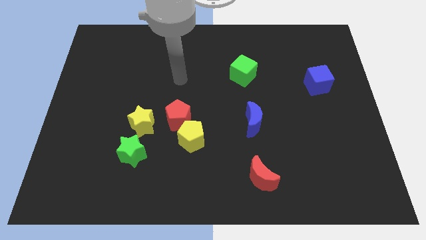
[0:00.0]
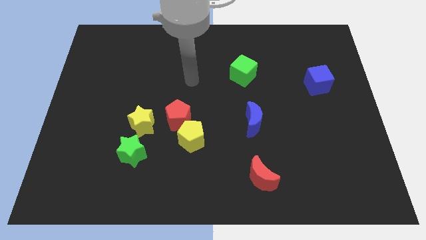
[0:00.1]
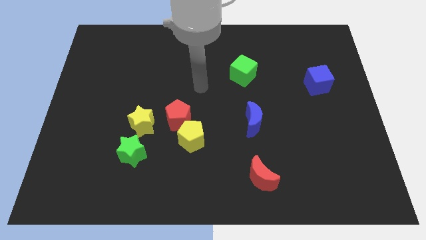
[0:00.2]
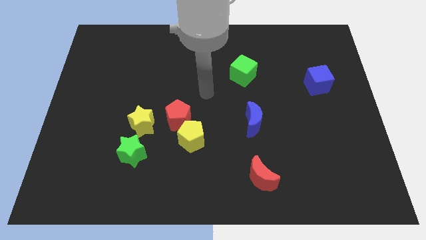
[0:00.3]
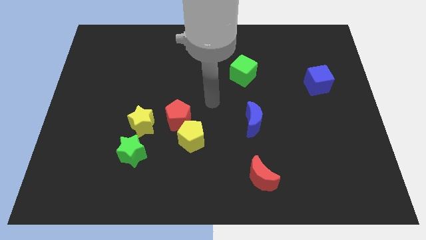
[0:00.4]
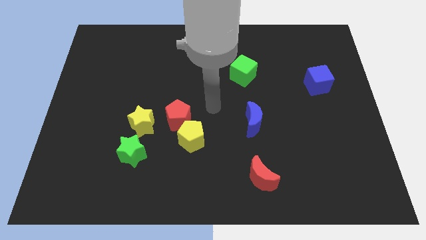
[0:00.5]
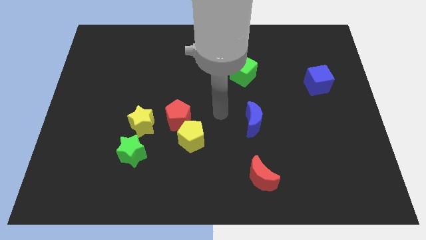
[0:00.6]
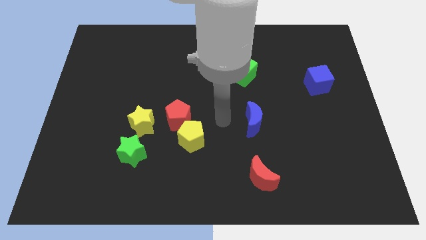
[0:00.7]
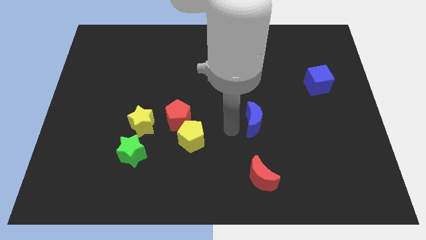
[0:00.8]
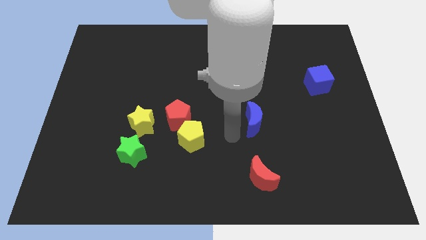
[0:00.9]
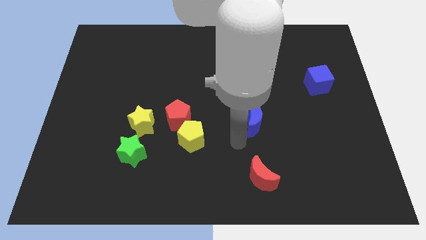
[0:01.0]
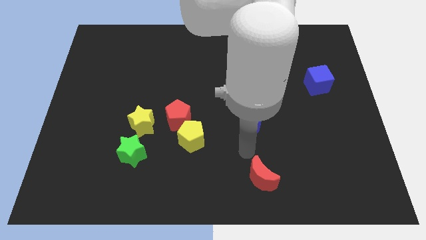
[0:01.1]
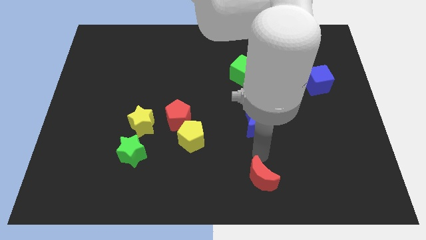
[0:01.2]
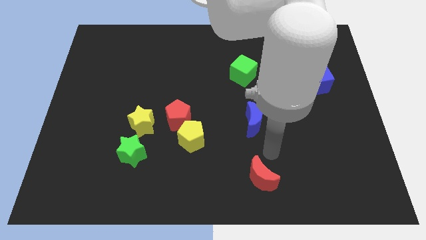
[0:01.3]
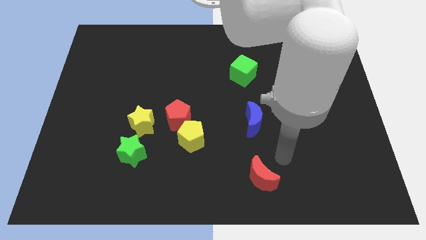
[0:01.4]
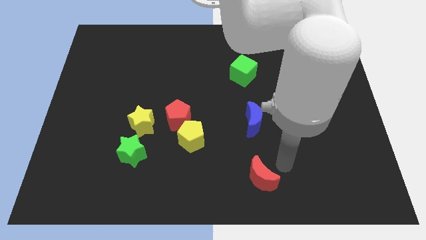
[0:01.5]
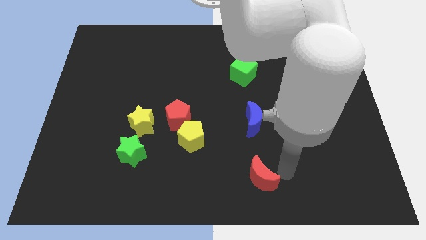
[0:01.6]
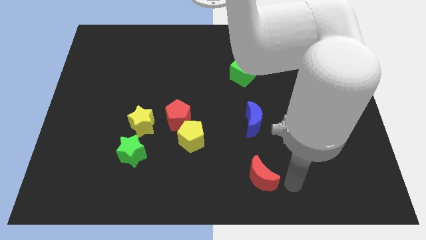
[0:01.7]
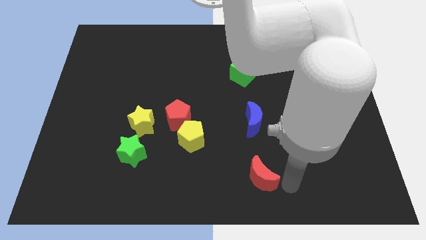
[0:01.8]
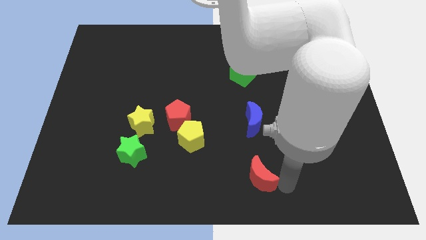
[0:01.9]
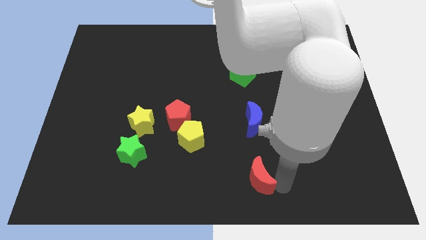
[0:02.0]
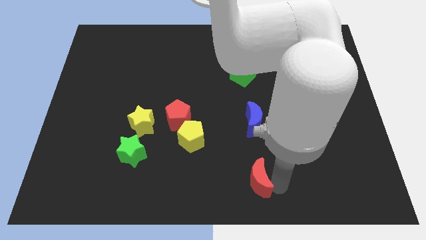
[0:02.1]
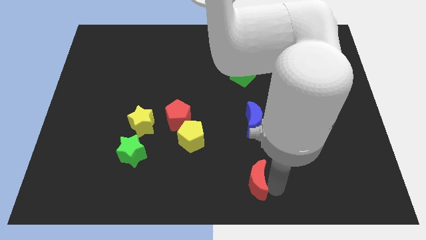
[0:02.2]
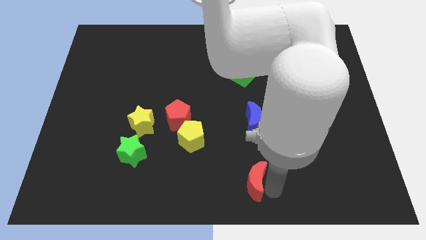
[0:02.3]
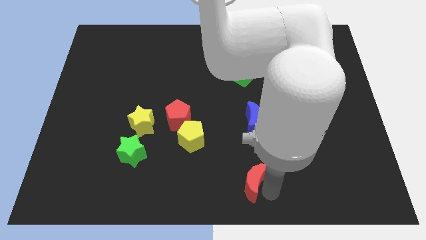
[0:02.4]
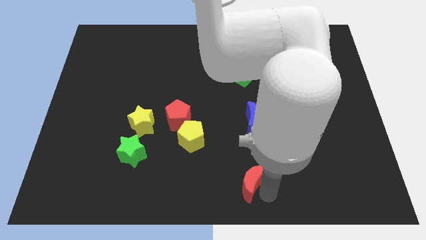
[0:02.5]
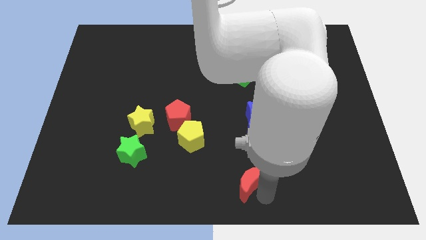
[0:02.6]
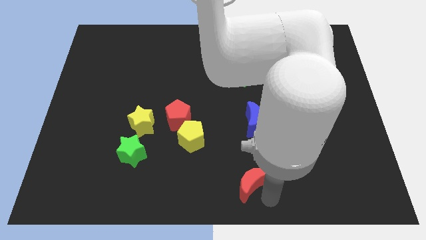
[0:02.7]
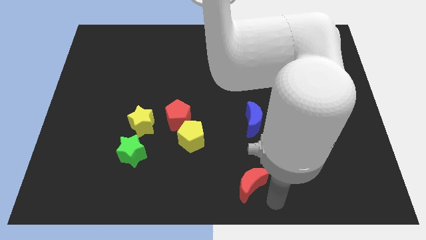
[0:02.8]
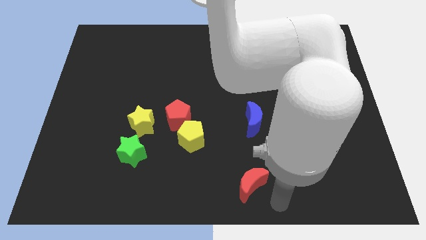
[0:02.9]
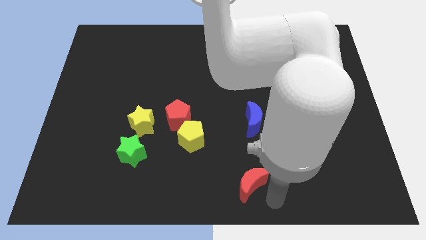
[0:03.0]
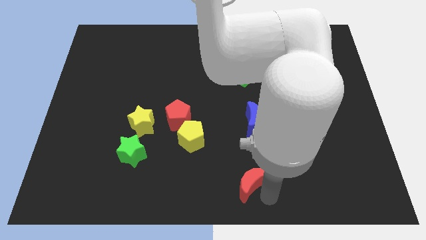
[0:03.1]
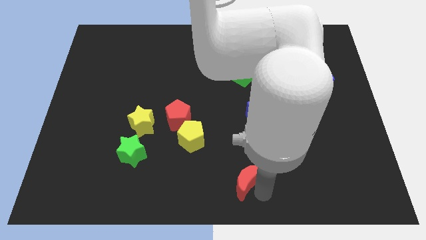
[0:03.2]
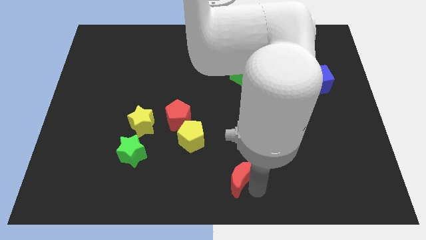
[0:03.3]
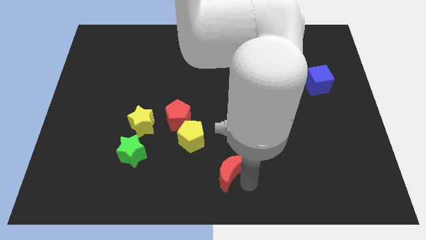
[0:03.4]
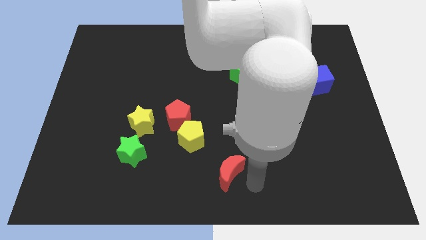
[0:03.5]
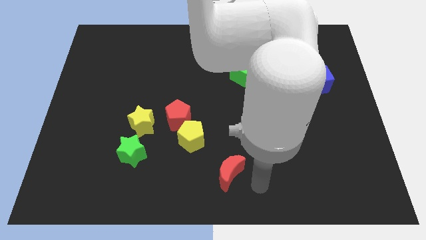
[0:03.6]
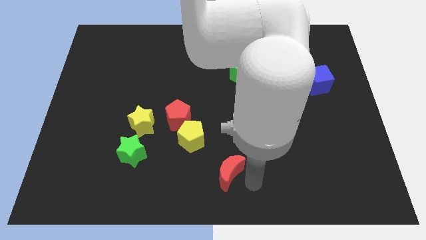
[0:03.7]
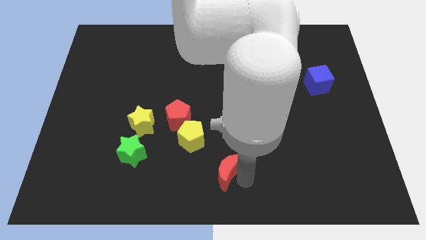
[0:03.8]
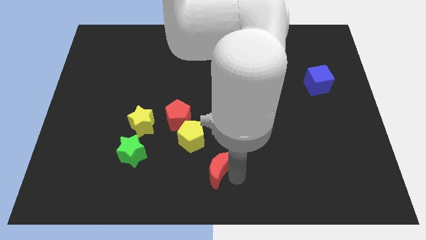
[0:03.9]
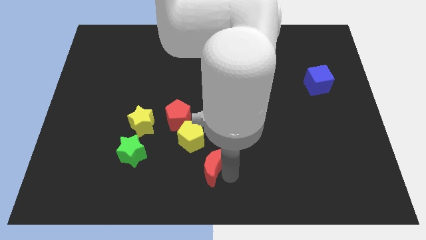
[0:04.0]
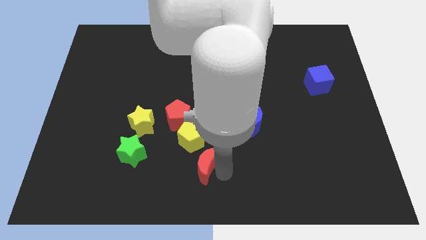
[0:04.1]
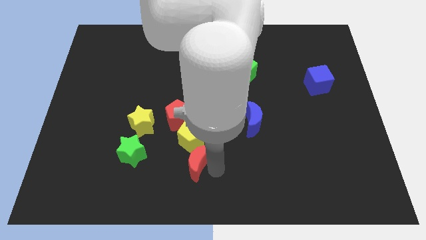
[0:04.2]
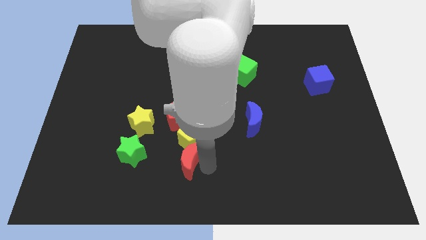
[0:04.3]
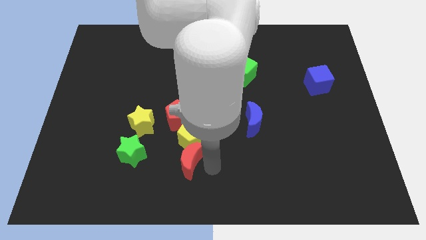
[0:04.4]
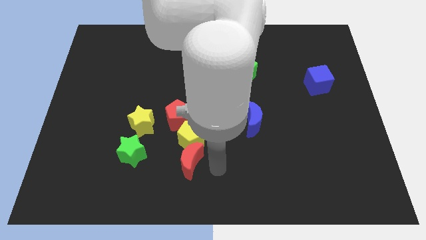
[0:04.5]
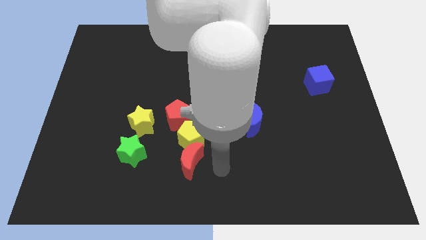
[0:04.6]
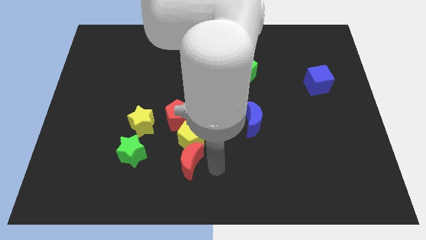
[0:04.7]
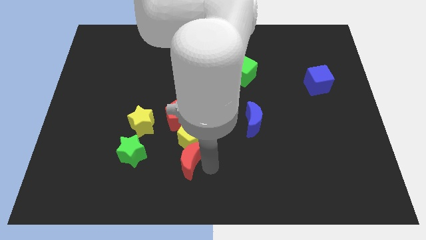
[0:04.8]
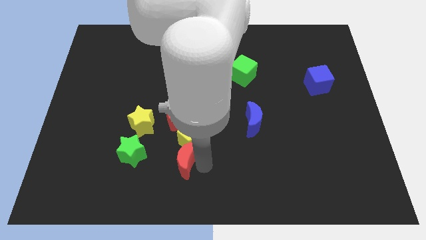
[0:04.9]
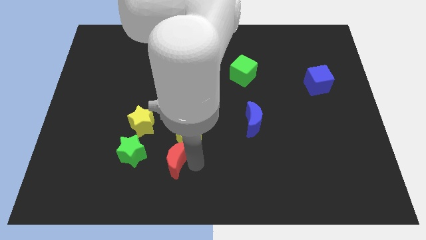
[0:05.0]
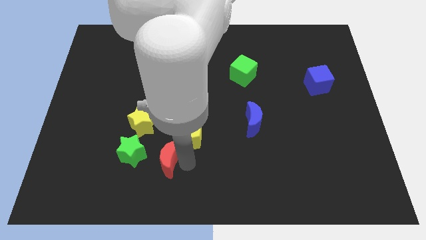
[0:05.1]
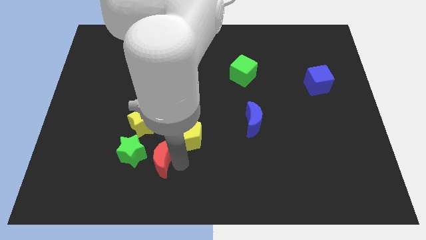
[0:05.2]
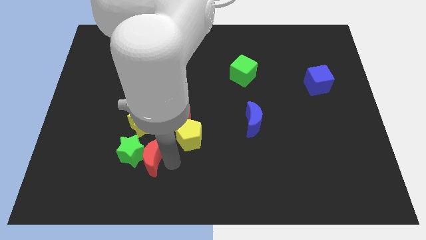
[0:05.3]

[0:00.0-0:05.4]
put the red moon towards the green star

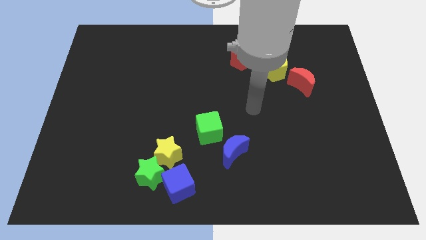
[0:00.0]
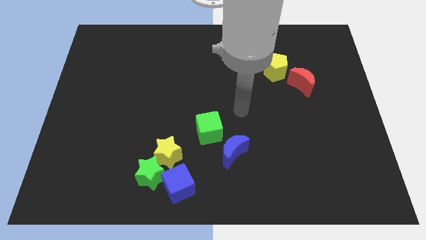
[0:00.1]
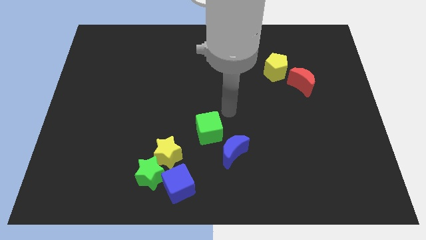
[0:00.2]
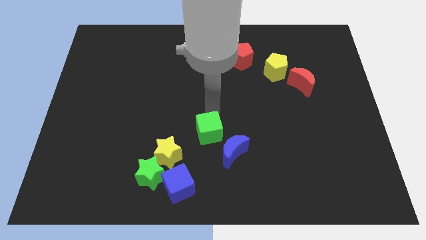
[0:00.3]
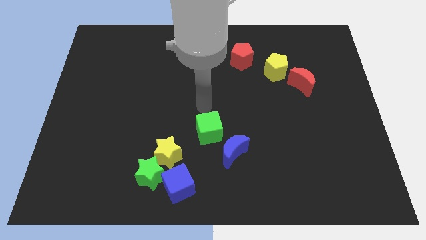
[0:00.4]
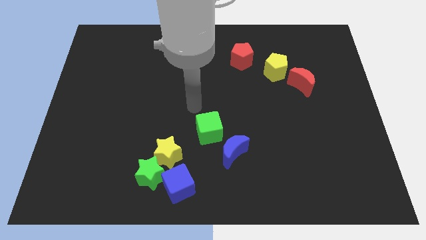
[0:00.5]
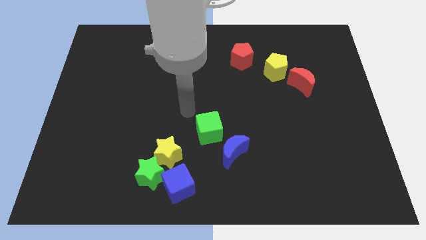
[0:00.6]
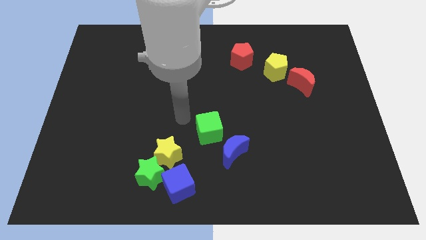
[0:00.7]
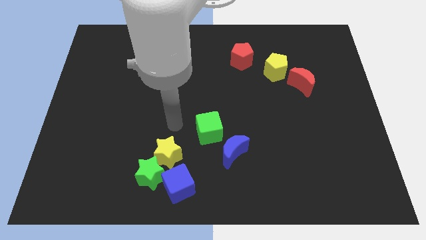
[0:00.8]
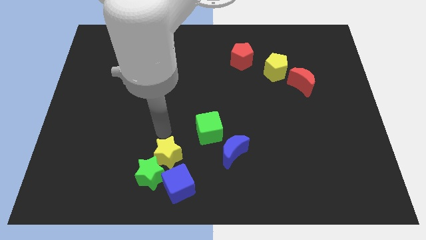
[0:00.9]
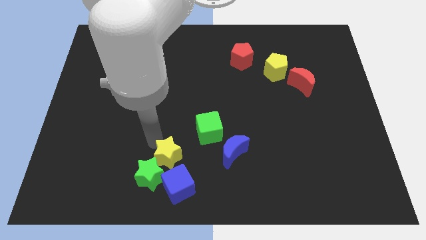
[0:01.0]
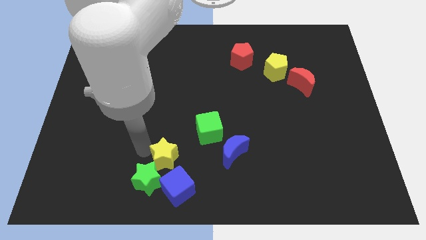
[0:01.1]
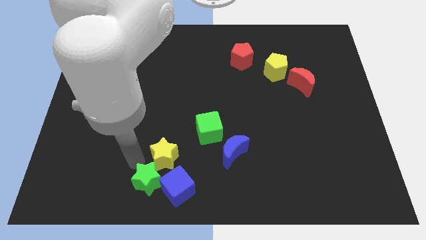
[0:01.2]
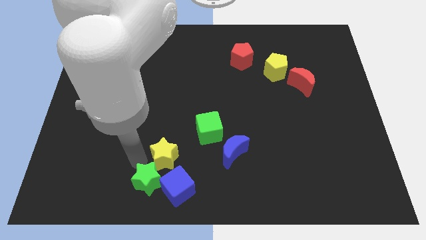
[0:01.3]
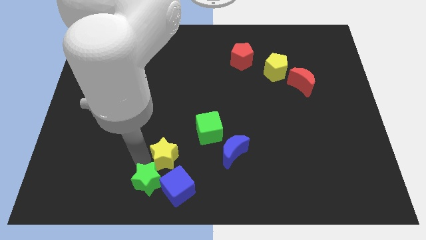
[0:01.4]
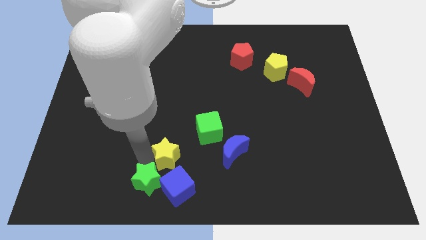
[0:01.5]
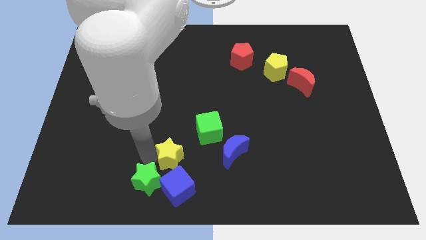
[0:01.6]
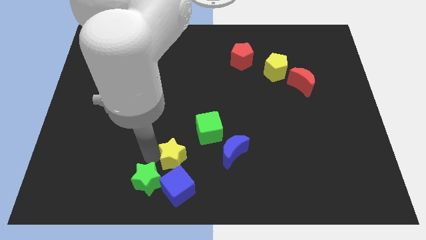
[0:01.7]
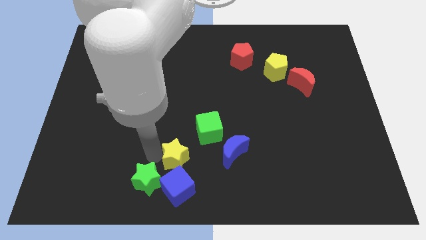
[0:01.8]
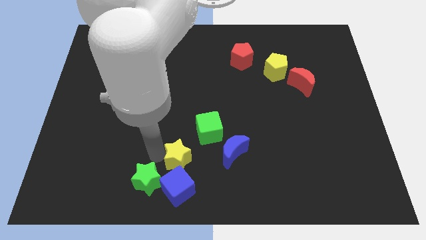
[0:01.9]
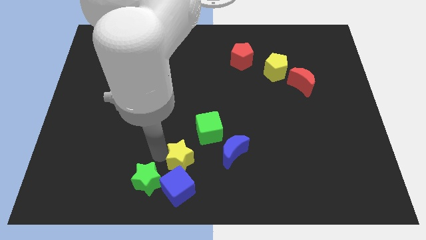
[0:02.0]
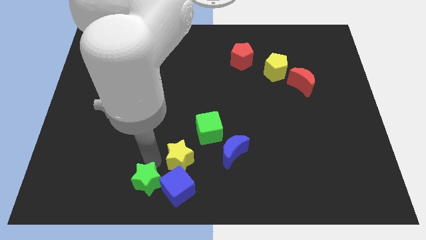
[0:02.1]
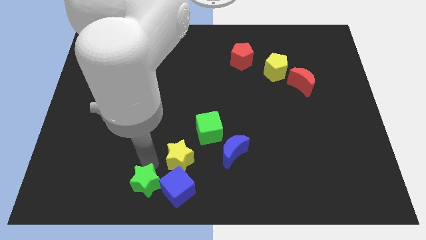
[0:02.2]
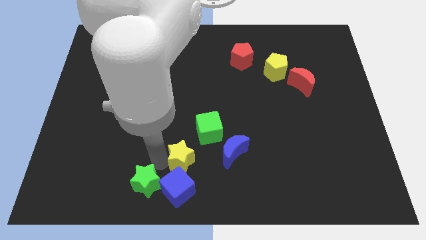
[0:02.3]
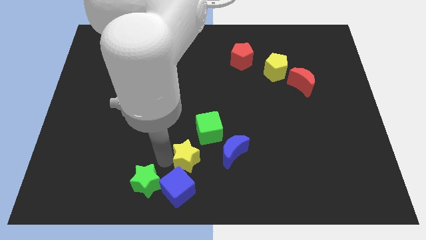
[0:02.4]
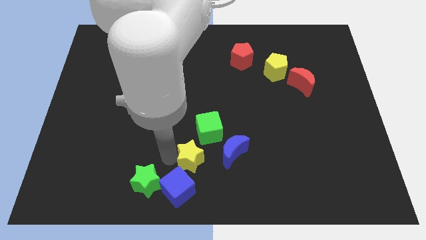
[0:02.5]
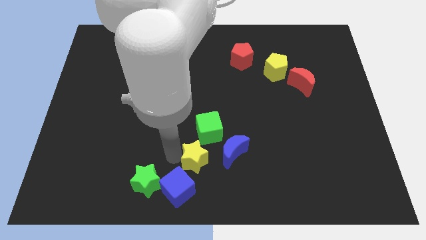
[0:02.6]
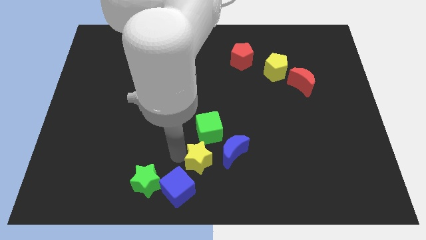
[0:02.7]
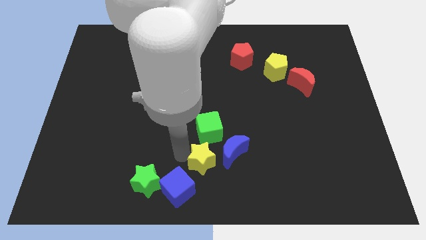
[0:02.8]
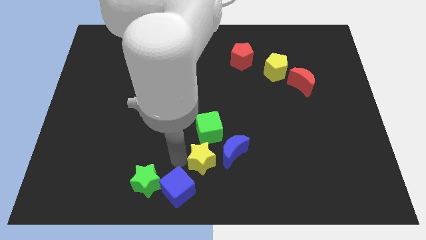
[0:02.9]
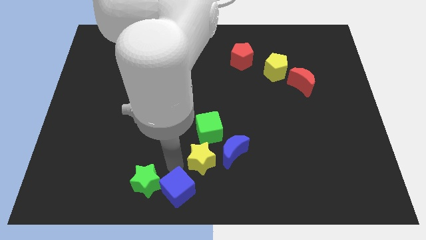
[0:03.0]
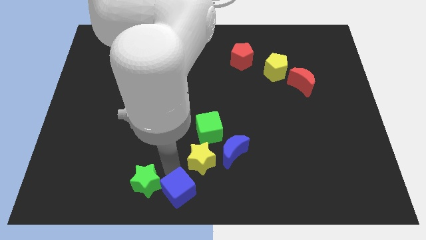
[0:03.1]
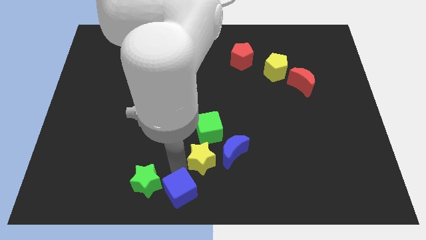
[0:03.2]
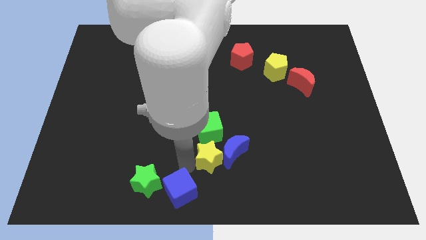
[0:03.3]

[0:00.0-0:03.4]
slide the yellow star close to the blue moon
